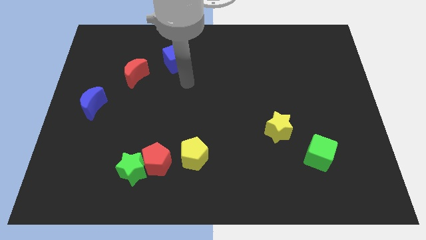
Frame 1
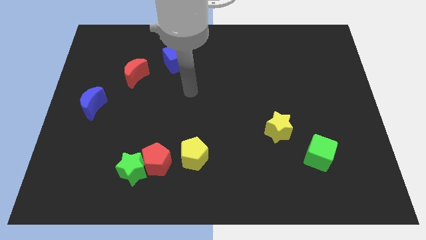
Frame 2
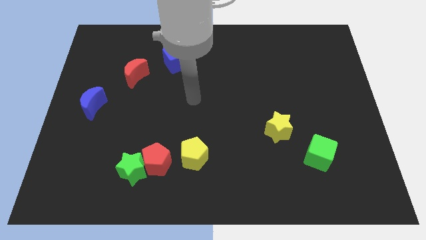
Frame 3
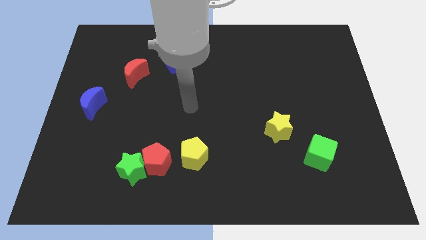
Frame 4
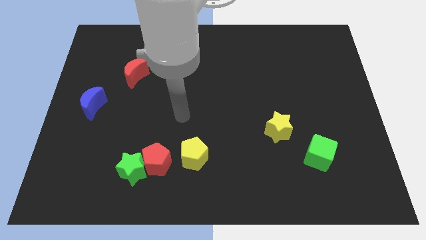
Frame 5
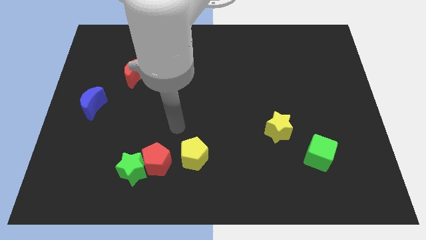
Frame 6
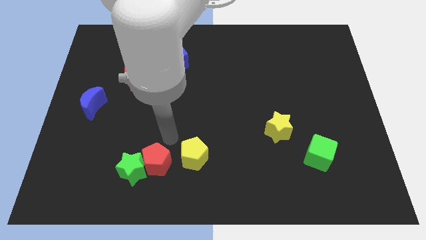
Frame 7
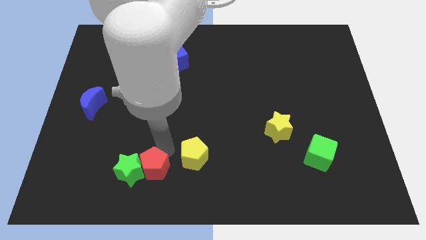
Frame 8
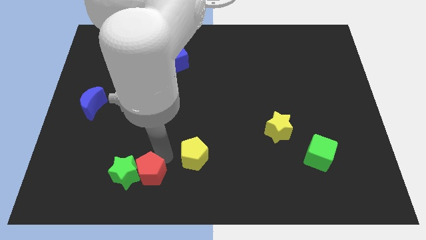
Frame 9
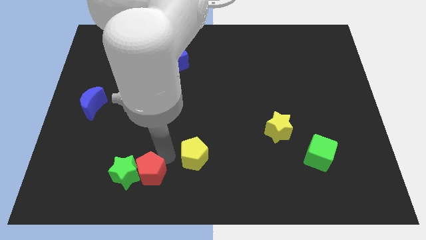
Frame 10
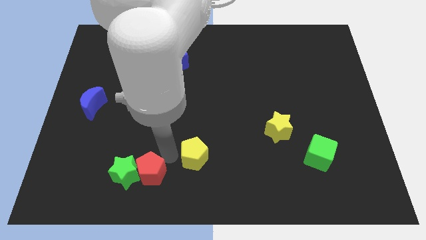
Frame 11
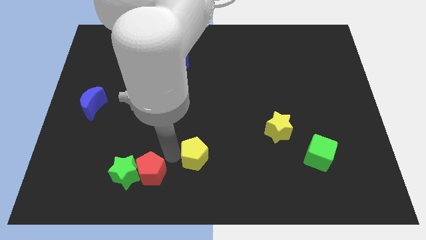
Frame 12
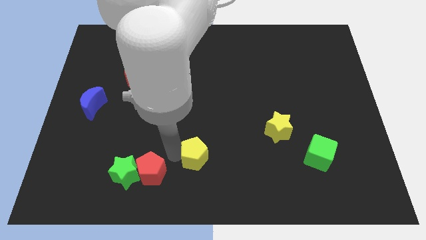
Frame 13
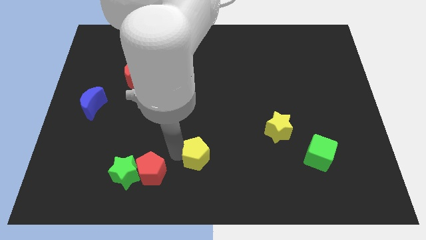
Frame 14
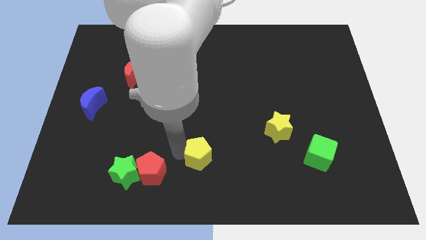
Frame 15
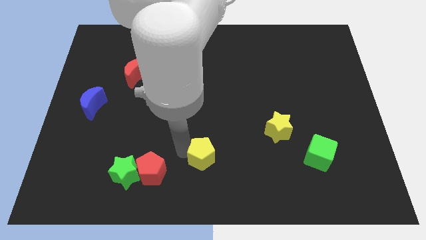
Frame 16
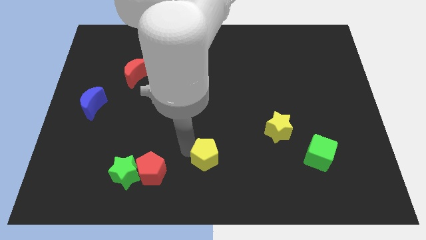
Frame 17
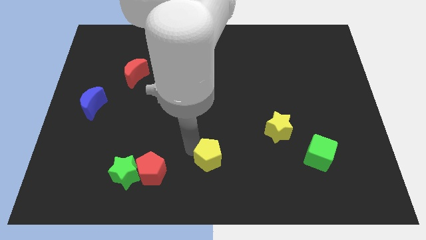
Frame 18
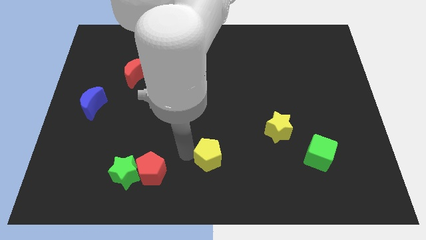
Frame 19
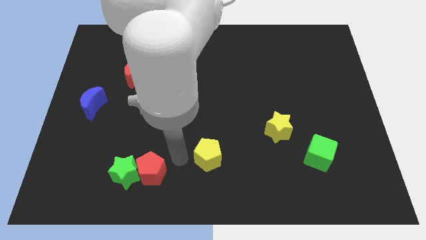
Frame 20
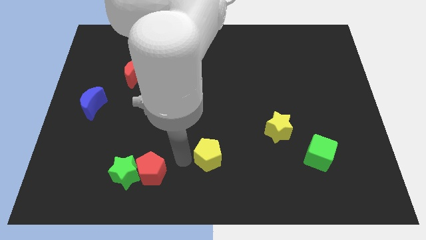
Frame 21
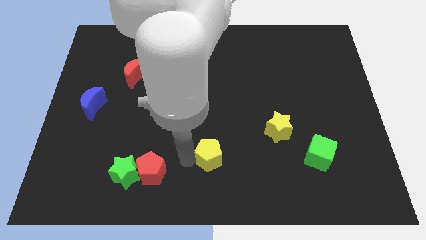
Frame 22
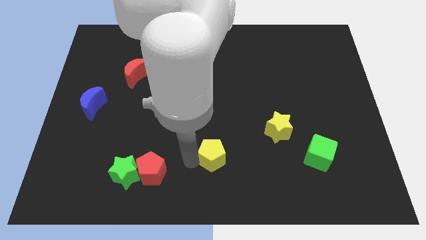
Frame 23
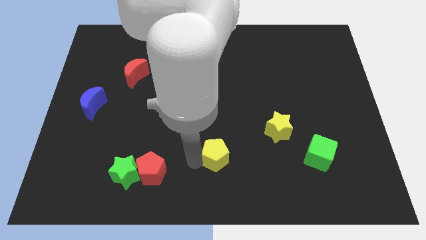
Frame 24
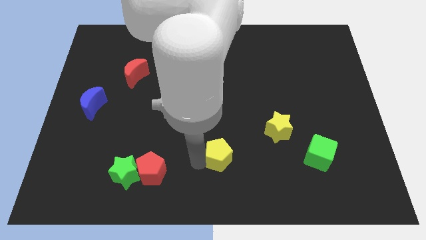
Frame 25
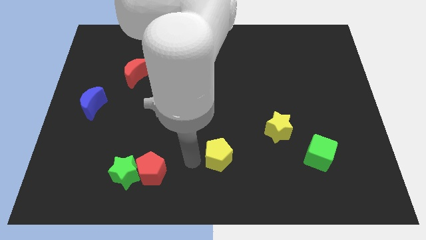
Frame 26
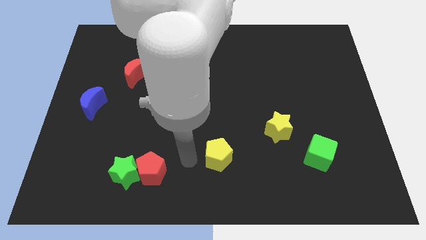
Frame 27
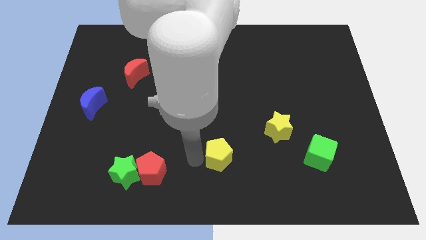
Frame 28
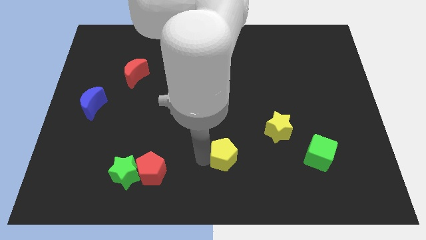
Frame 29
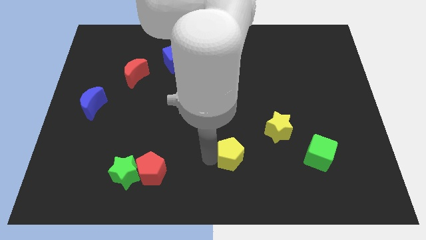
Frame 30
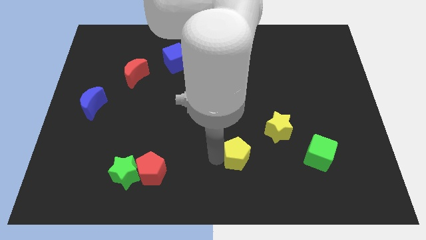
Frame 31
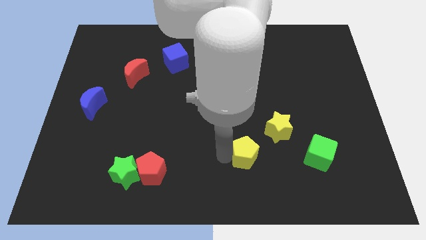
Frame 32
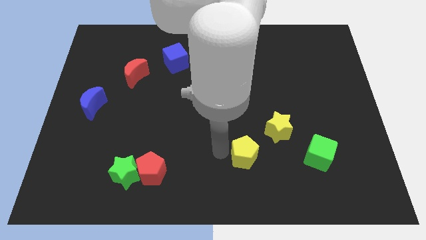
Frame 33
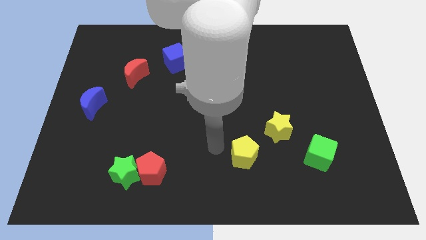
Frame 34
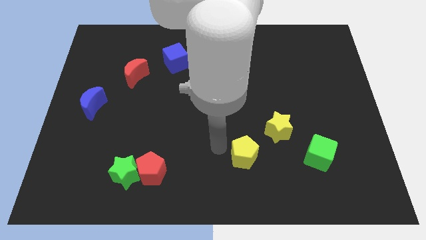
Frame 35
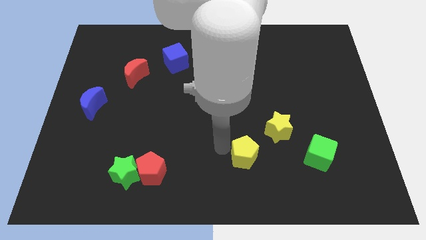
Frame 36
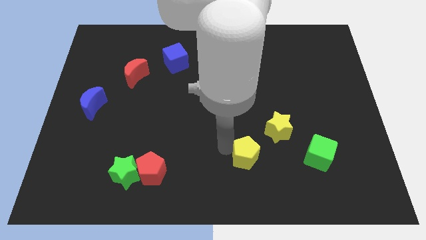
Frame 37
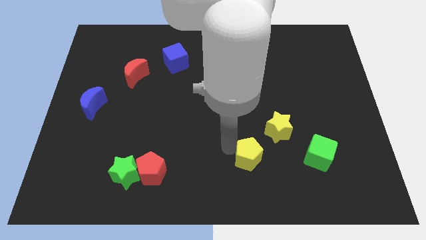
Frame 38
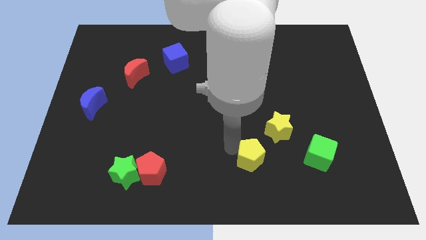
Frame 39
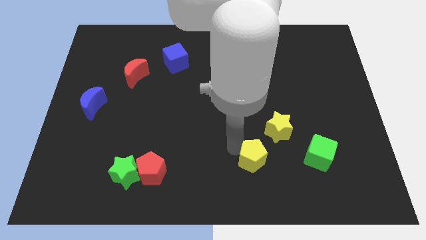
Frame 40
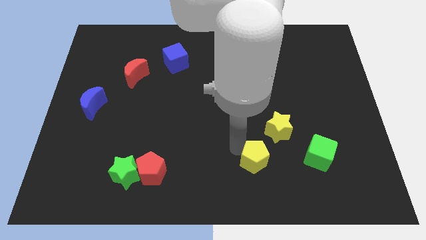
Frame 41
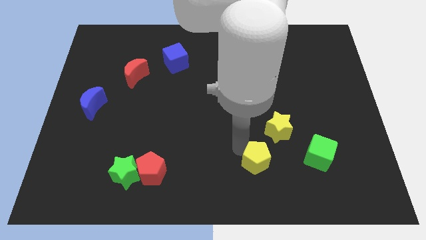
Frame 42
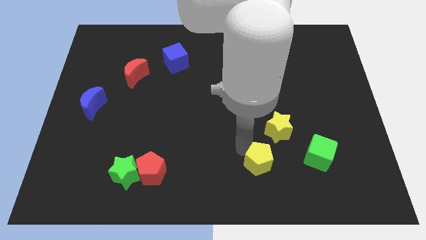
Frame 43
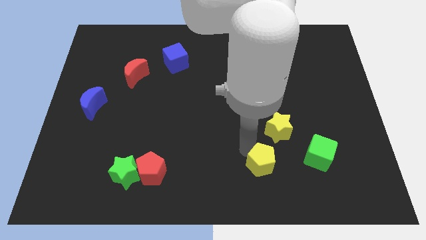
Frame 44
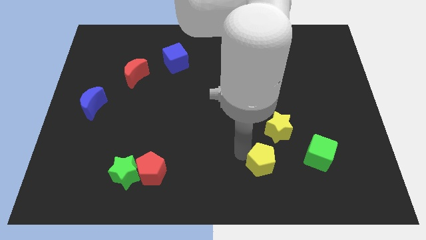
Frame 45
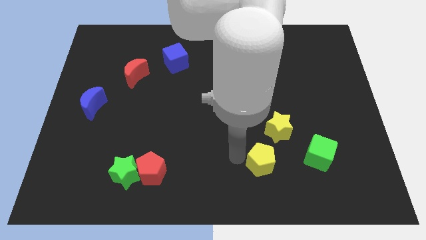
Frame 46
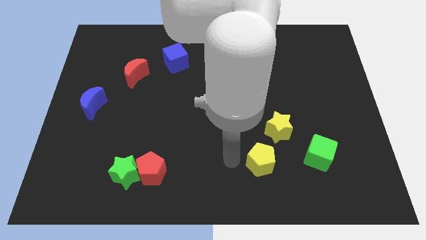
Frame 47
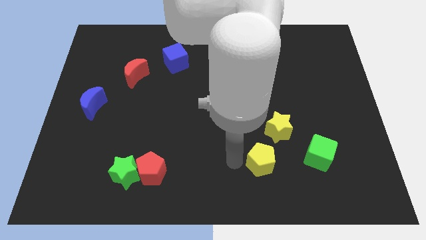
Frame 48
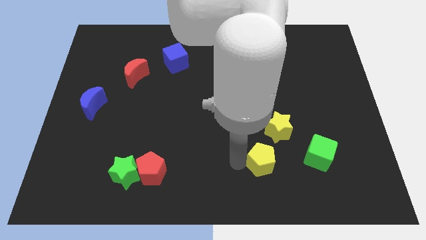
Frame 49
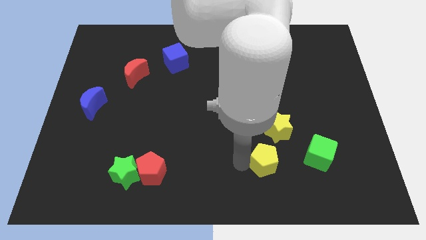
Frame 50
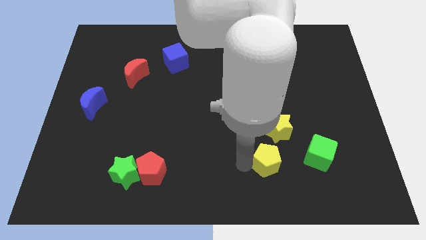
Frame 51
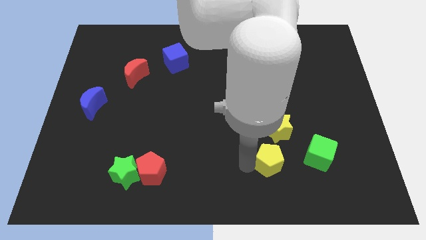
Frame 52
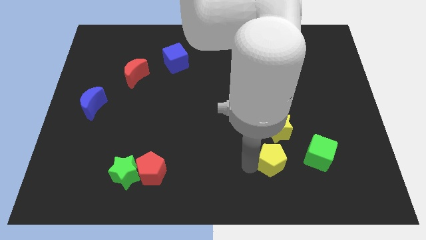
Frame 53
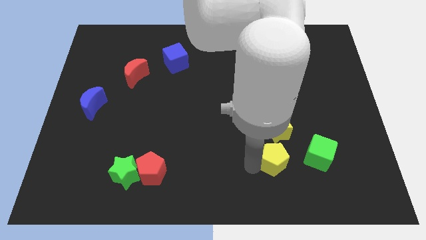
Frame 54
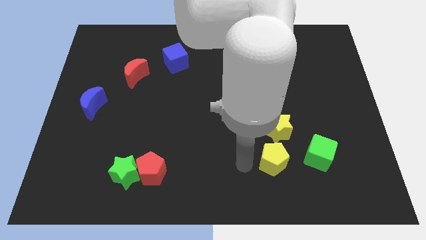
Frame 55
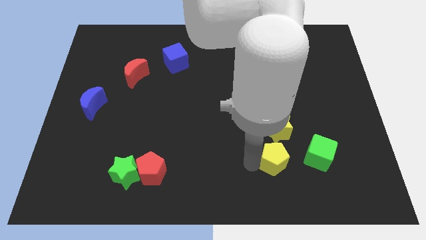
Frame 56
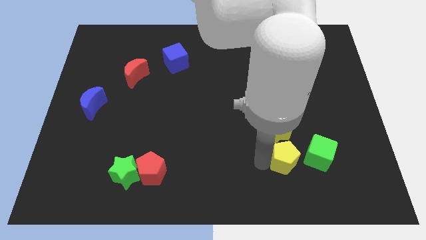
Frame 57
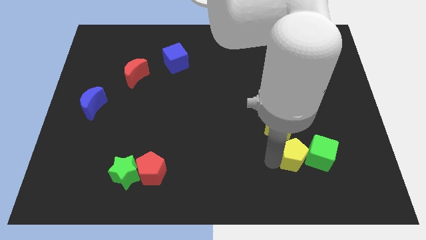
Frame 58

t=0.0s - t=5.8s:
put the yellow pentagon to the green cube

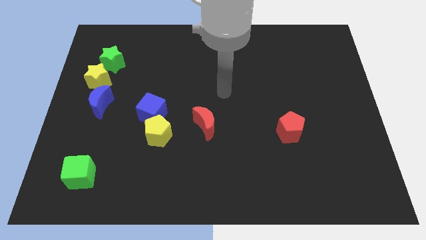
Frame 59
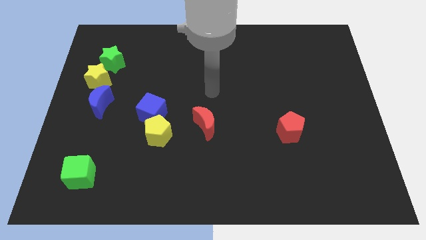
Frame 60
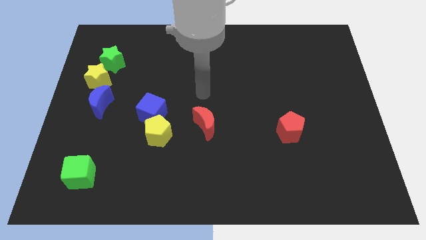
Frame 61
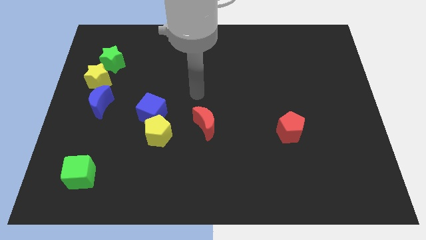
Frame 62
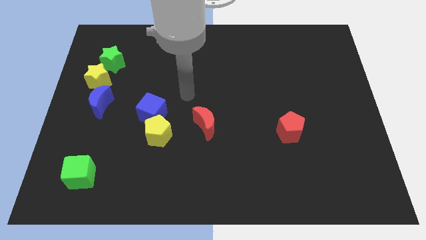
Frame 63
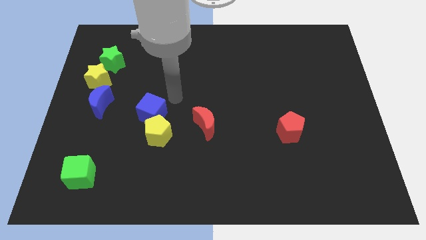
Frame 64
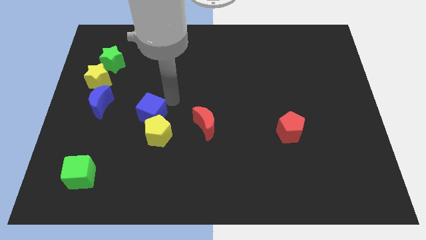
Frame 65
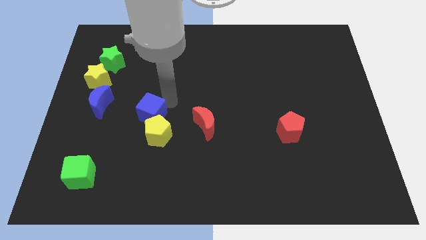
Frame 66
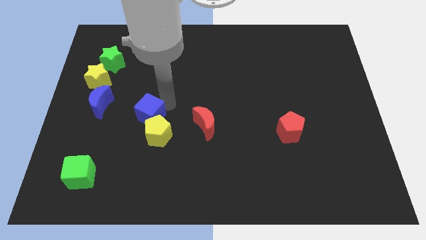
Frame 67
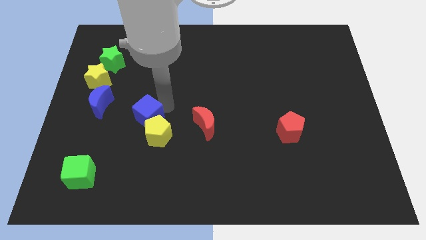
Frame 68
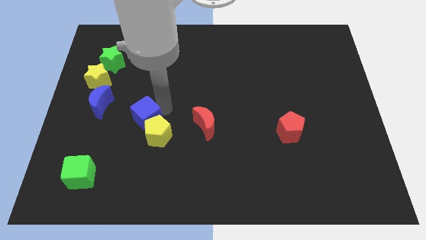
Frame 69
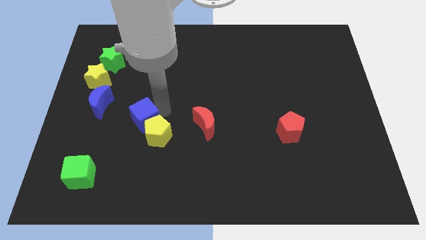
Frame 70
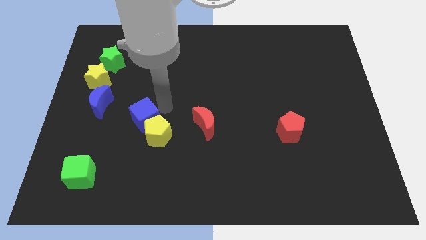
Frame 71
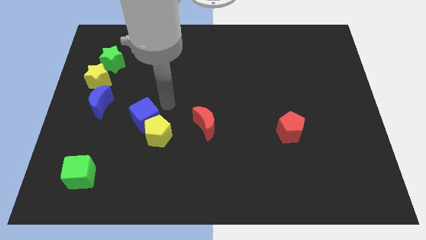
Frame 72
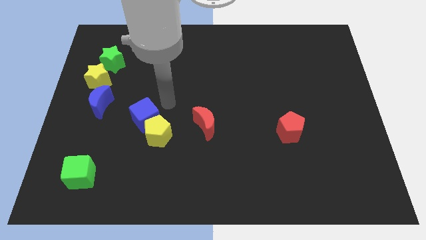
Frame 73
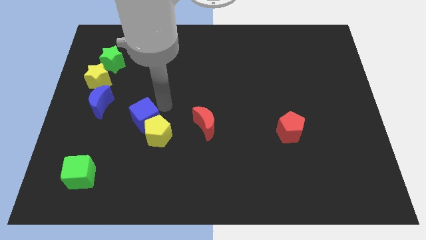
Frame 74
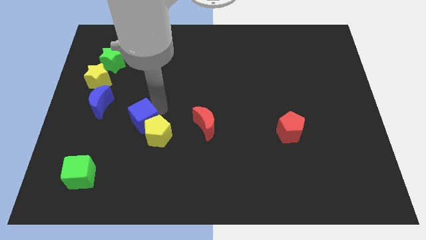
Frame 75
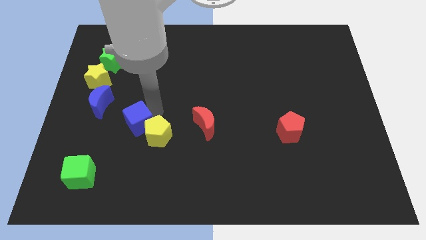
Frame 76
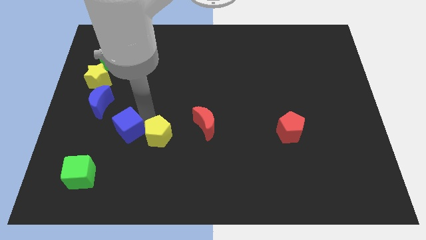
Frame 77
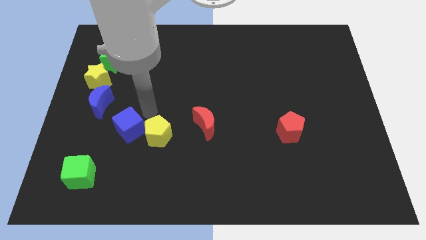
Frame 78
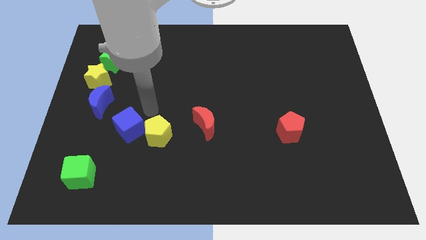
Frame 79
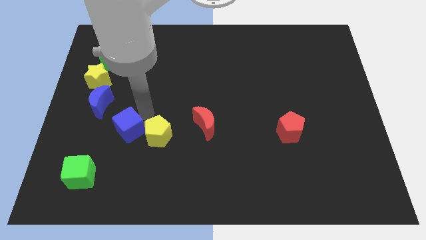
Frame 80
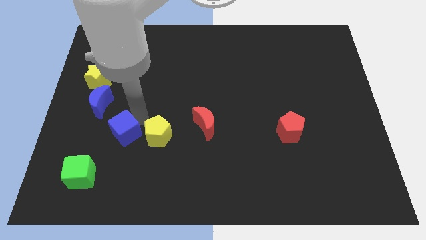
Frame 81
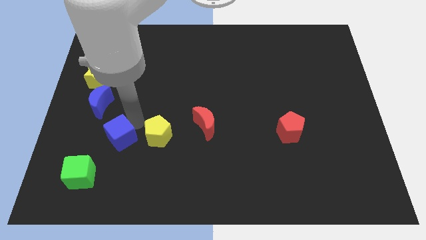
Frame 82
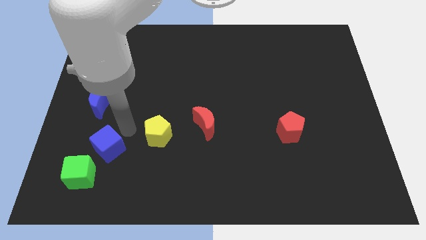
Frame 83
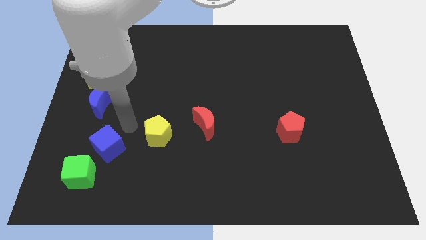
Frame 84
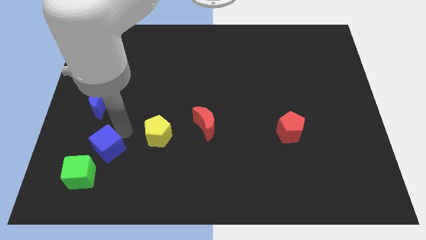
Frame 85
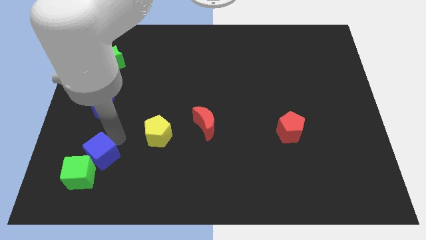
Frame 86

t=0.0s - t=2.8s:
slide the blue cube to the green cube
